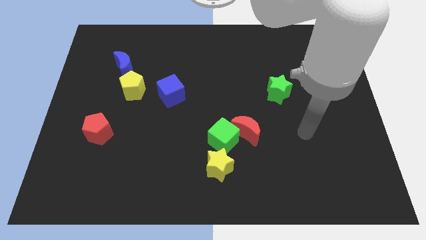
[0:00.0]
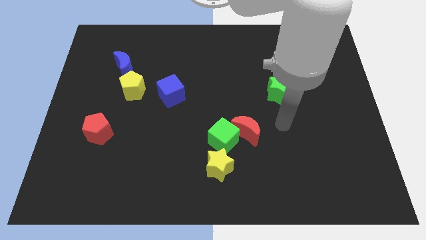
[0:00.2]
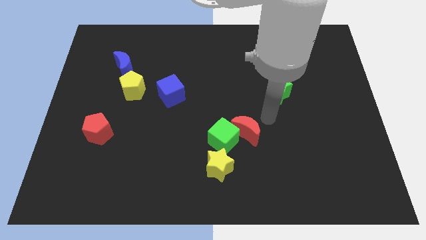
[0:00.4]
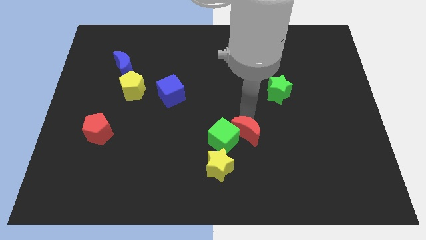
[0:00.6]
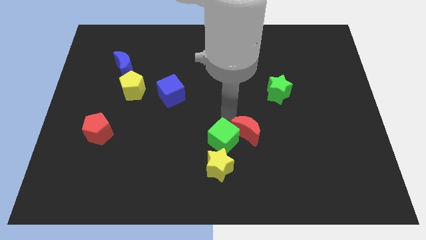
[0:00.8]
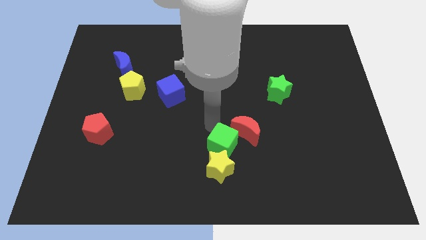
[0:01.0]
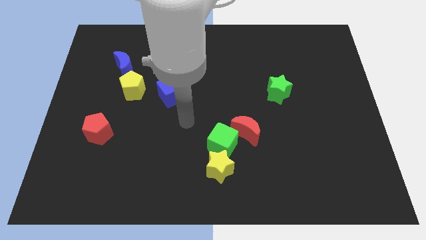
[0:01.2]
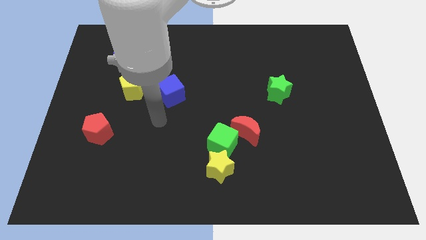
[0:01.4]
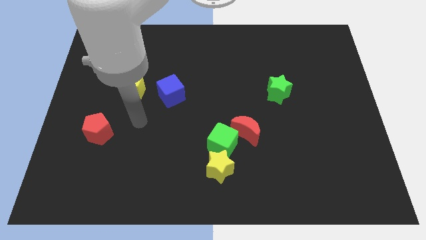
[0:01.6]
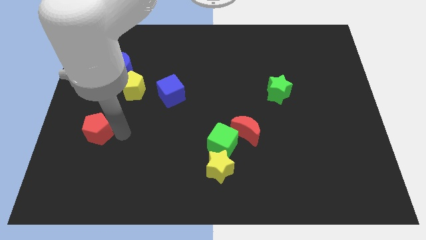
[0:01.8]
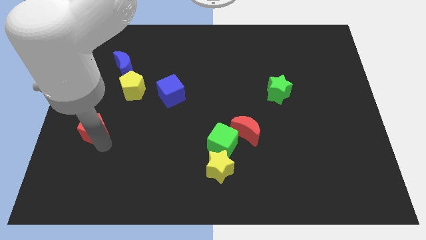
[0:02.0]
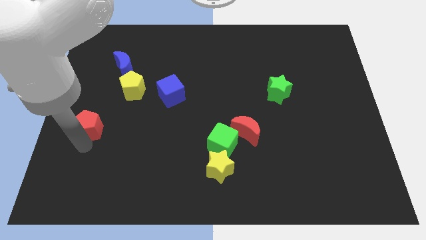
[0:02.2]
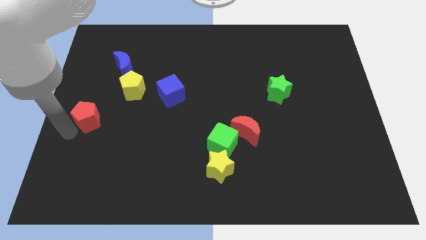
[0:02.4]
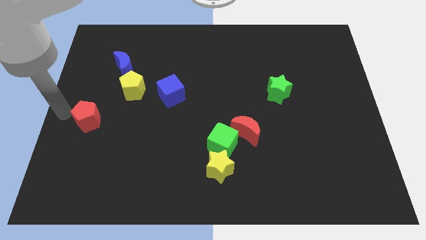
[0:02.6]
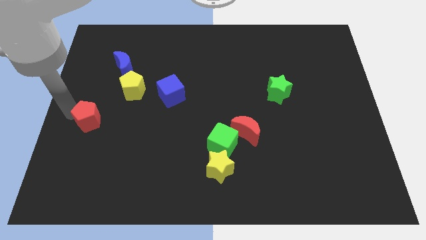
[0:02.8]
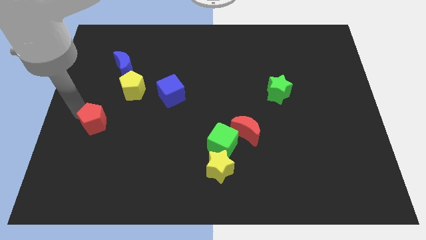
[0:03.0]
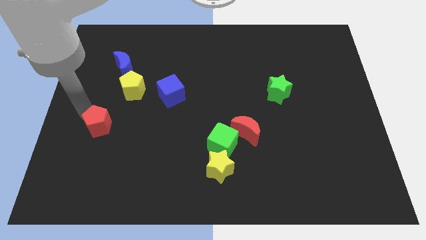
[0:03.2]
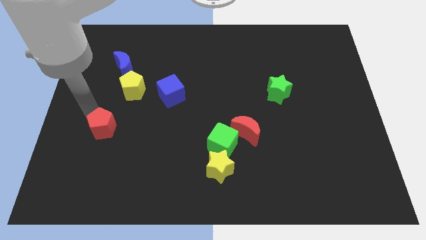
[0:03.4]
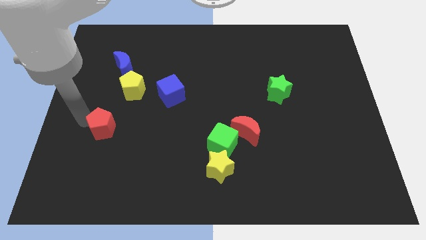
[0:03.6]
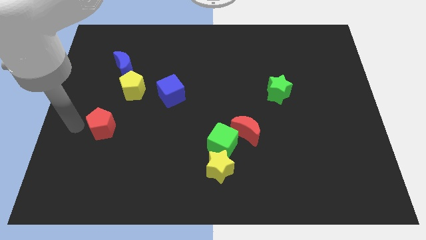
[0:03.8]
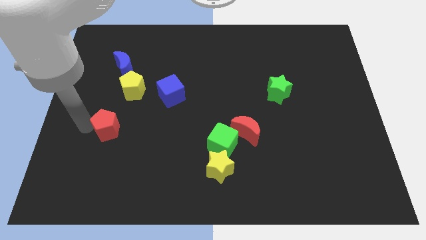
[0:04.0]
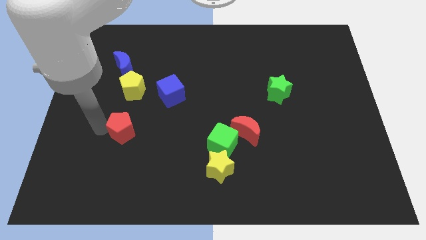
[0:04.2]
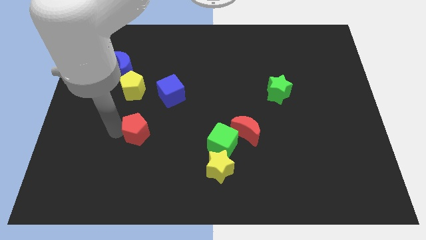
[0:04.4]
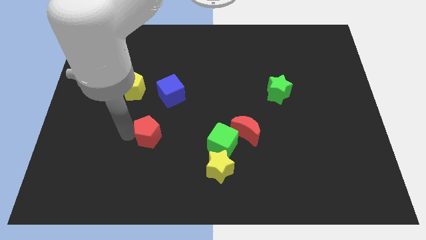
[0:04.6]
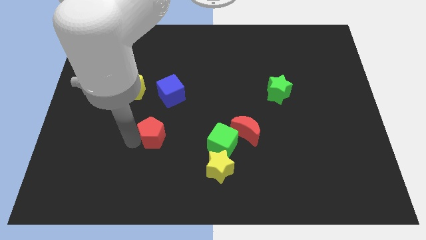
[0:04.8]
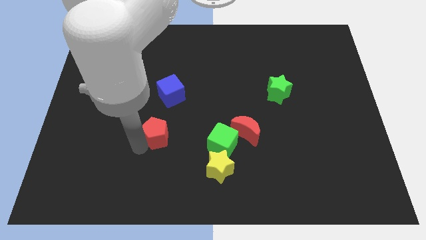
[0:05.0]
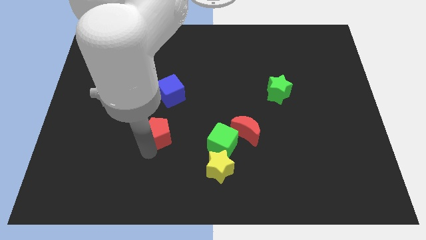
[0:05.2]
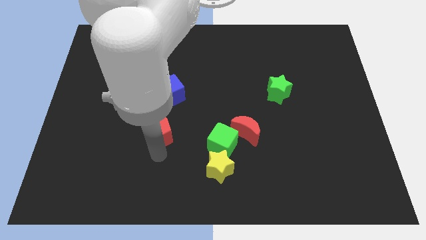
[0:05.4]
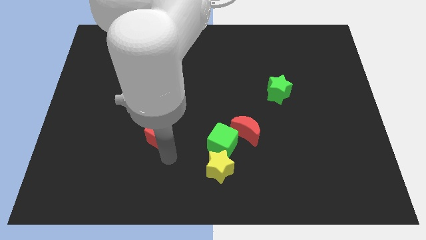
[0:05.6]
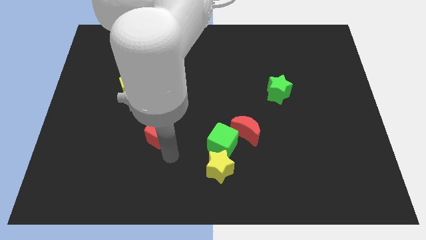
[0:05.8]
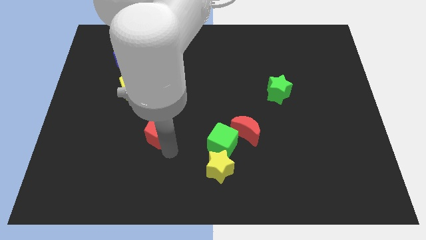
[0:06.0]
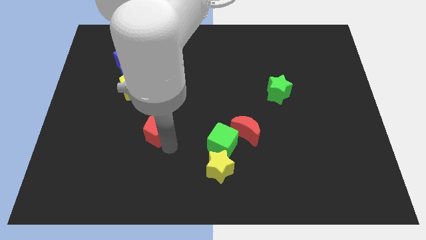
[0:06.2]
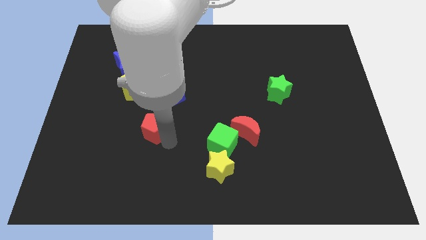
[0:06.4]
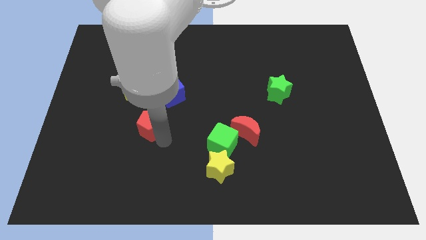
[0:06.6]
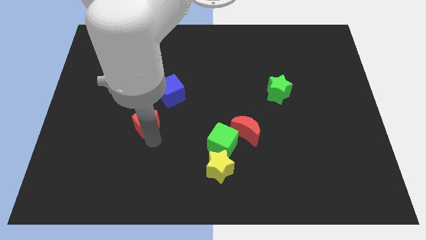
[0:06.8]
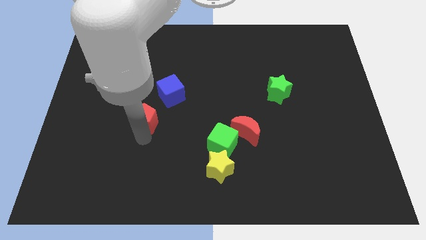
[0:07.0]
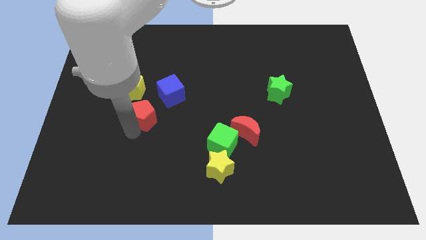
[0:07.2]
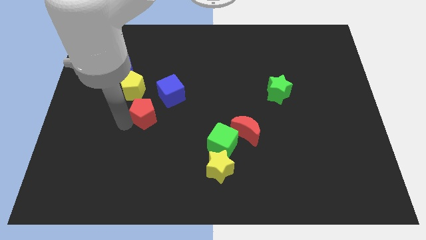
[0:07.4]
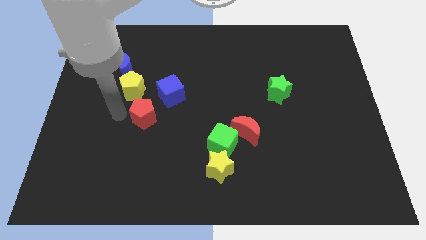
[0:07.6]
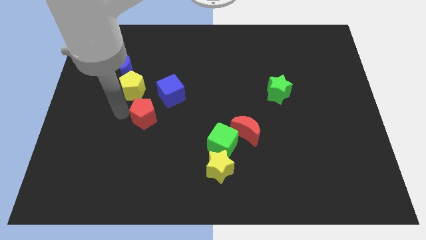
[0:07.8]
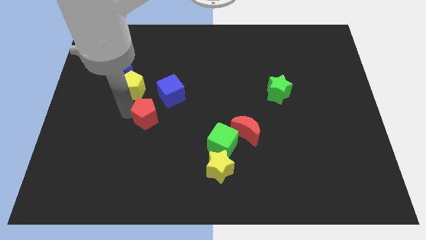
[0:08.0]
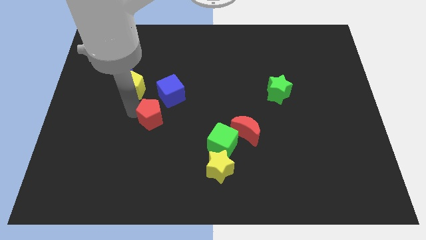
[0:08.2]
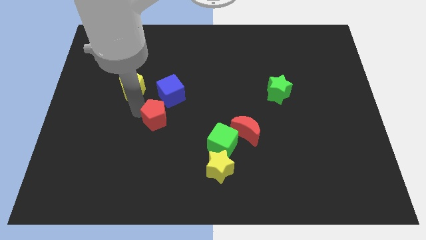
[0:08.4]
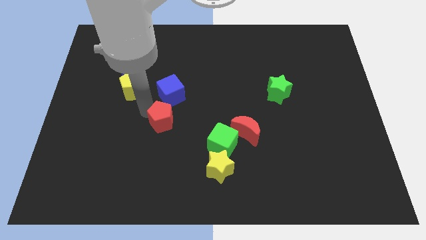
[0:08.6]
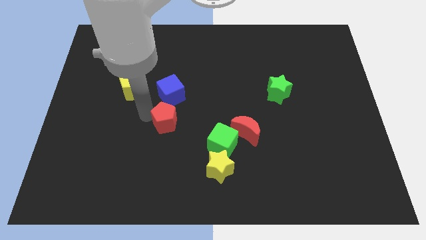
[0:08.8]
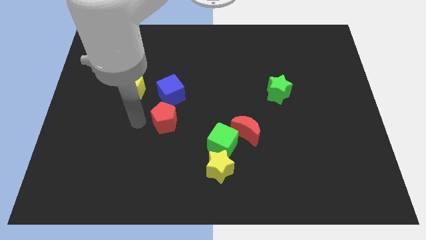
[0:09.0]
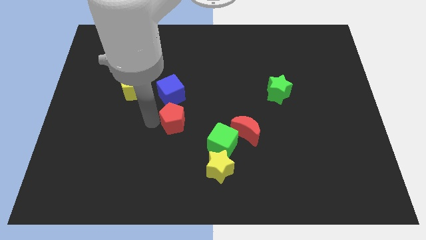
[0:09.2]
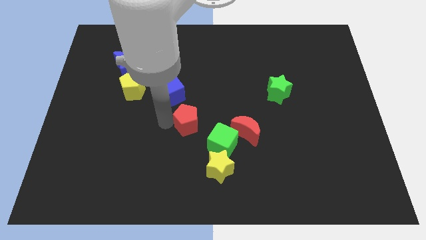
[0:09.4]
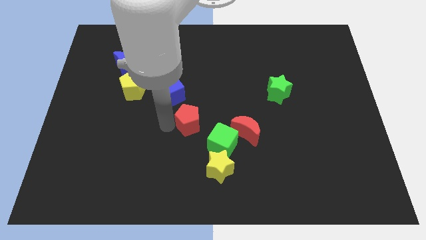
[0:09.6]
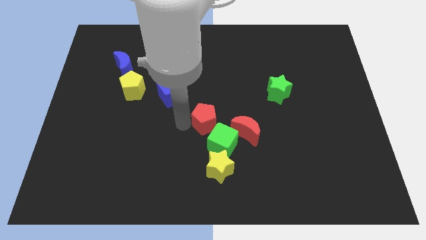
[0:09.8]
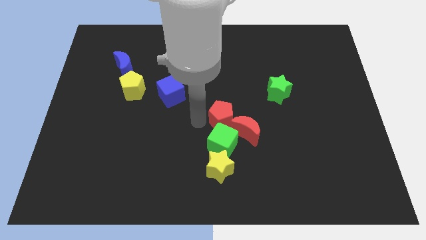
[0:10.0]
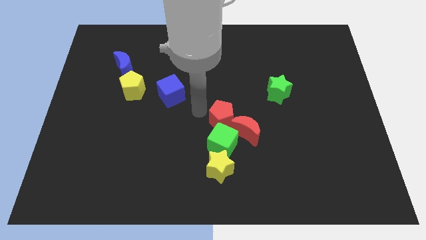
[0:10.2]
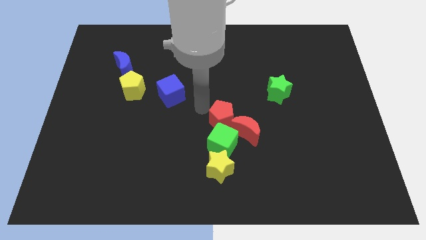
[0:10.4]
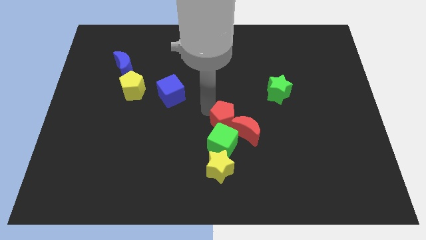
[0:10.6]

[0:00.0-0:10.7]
slide the red pentagon next to the red moon

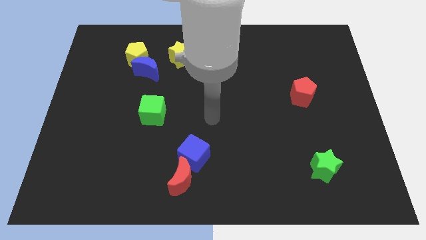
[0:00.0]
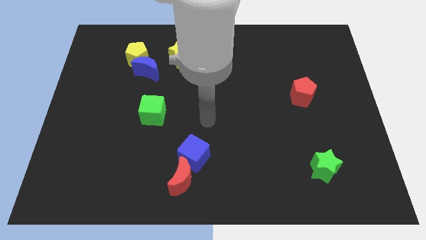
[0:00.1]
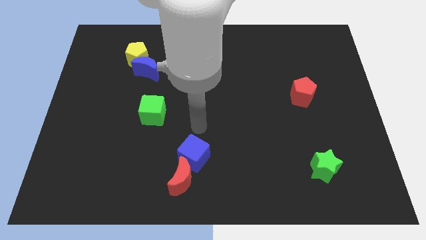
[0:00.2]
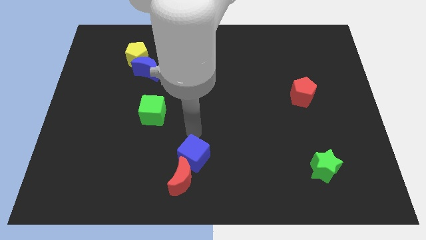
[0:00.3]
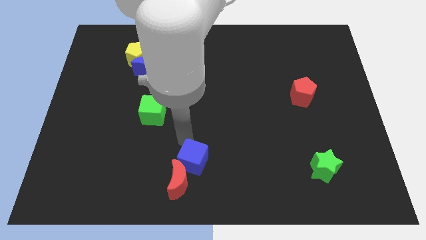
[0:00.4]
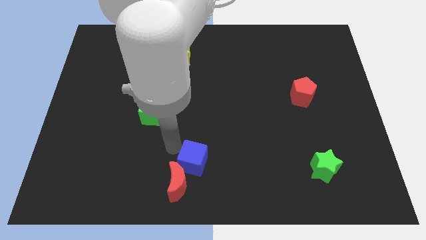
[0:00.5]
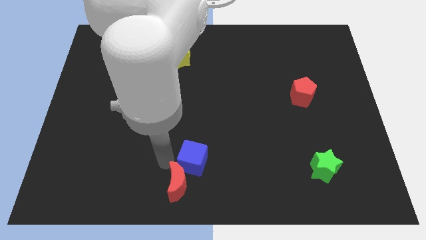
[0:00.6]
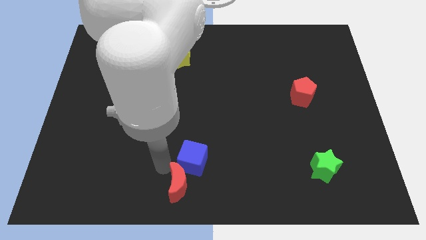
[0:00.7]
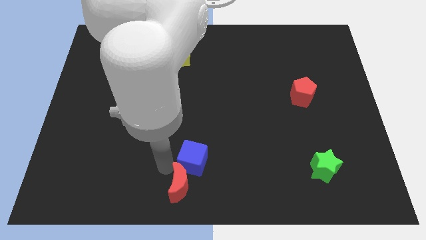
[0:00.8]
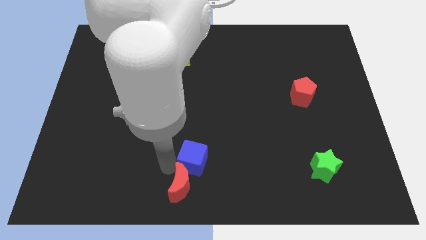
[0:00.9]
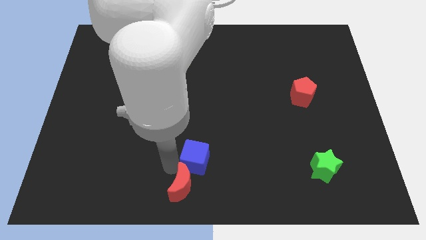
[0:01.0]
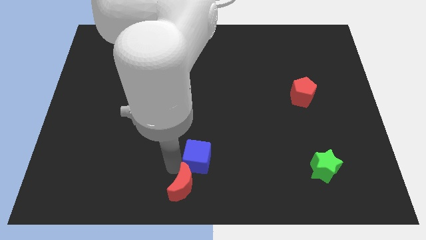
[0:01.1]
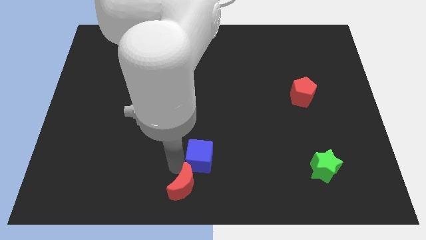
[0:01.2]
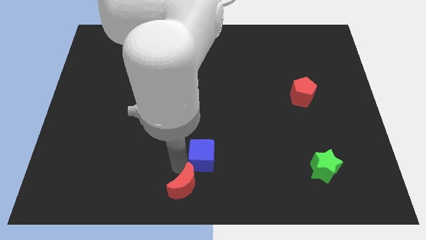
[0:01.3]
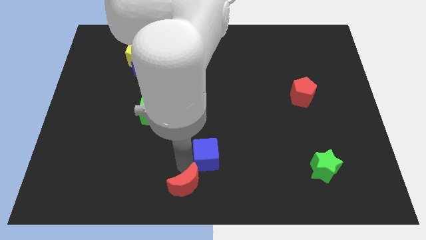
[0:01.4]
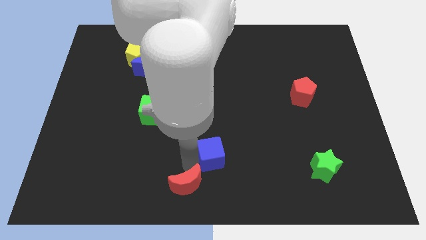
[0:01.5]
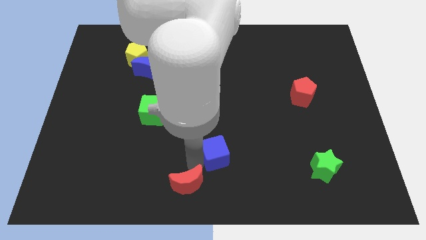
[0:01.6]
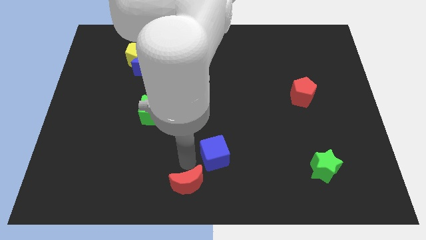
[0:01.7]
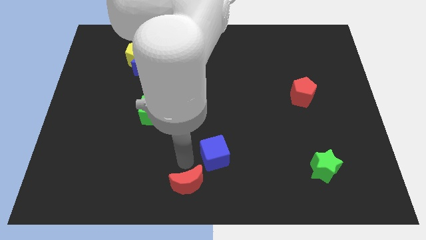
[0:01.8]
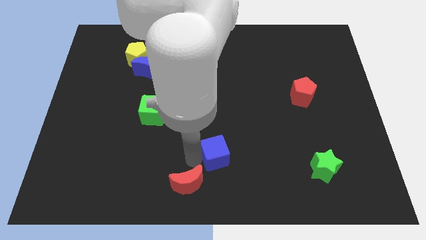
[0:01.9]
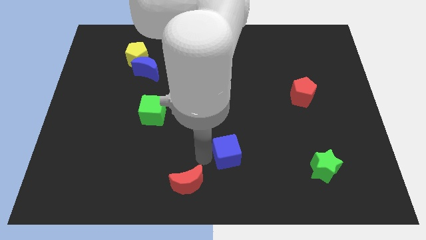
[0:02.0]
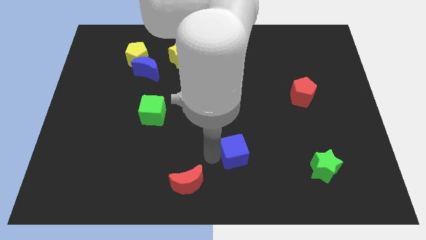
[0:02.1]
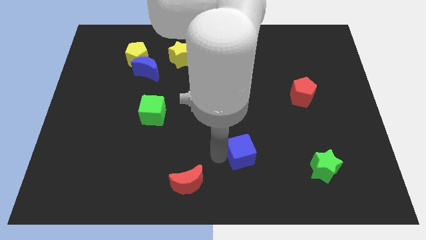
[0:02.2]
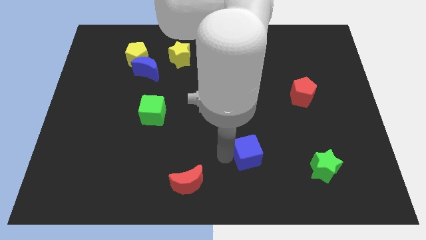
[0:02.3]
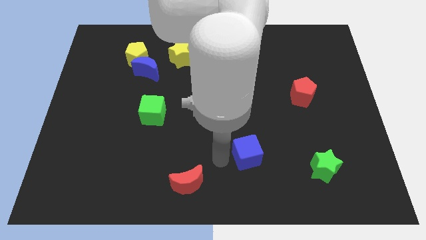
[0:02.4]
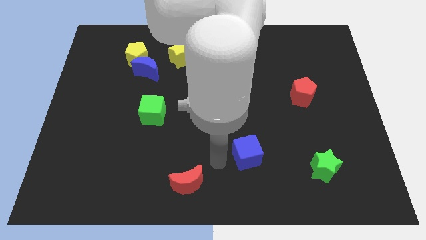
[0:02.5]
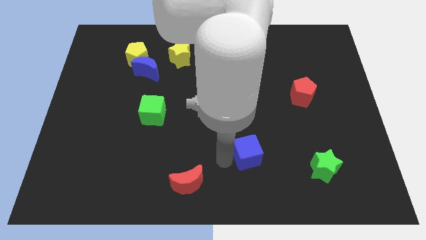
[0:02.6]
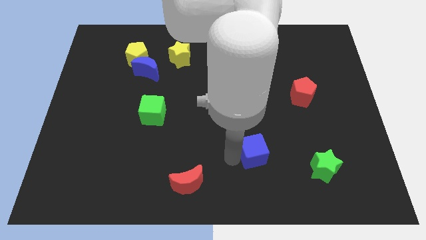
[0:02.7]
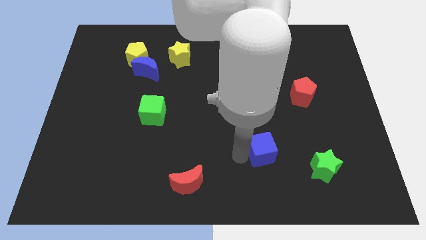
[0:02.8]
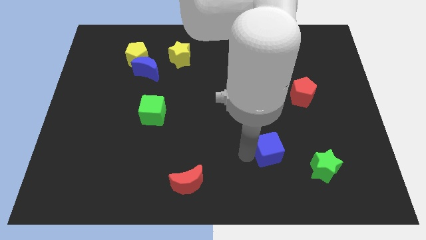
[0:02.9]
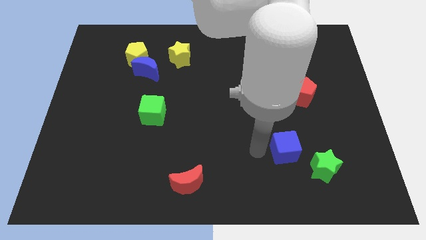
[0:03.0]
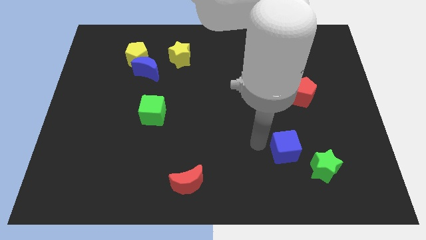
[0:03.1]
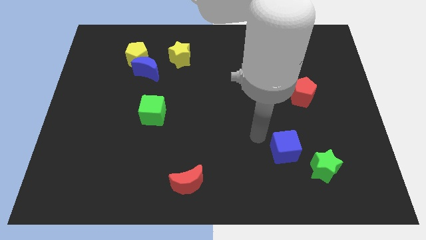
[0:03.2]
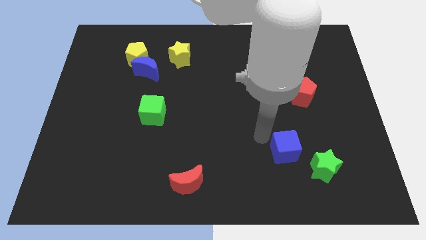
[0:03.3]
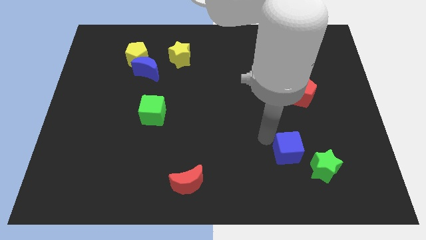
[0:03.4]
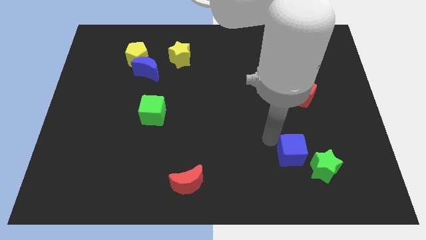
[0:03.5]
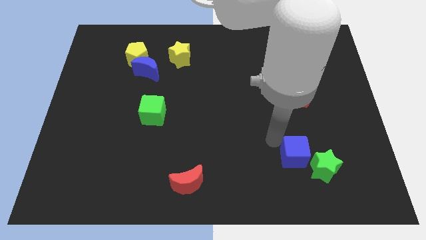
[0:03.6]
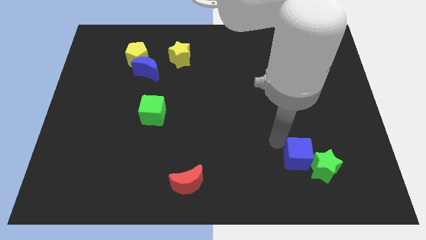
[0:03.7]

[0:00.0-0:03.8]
push the blue cube towards the green star
